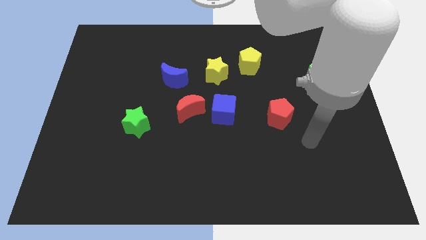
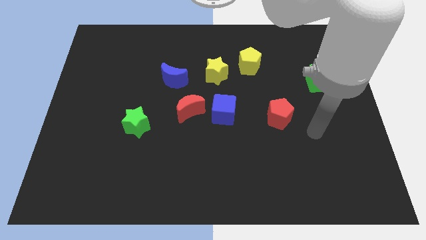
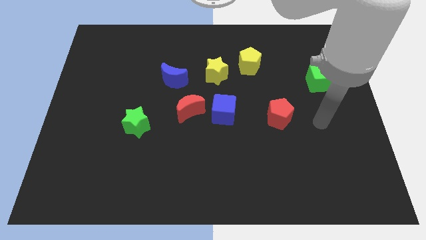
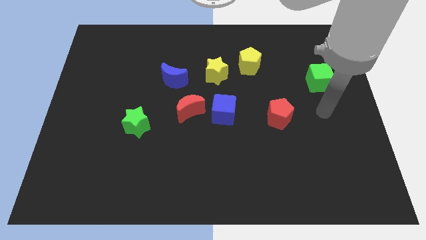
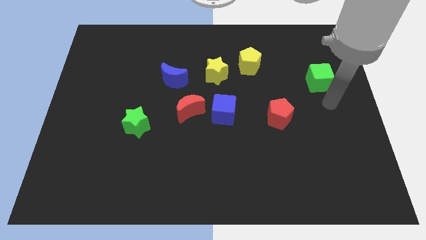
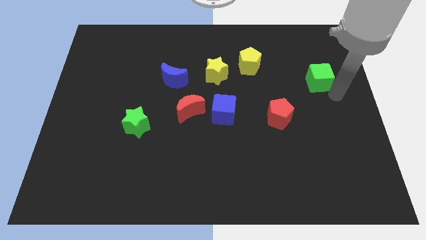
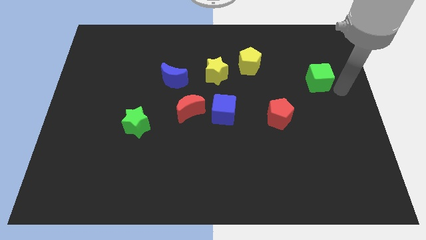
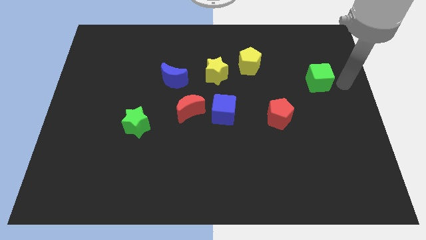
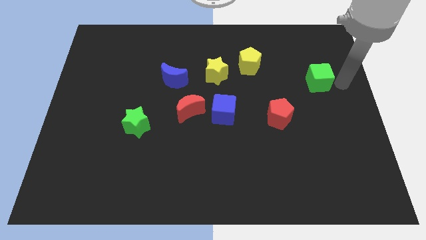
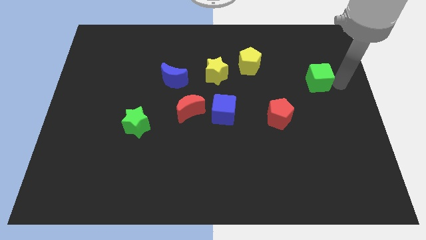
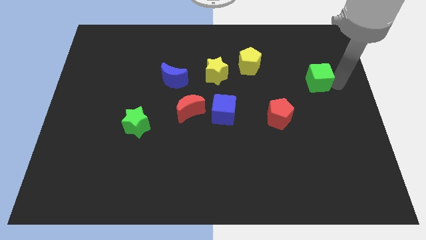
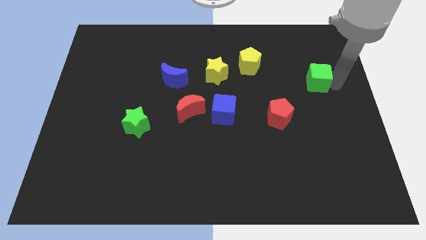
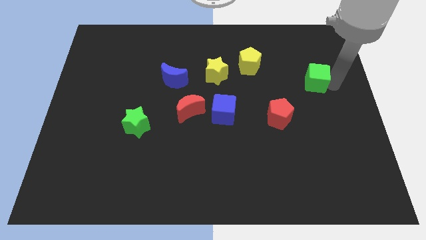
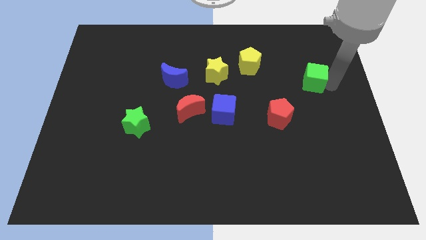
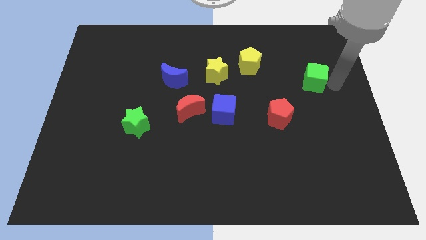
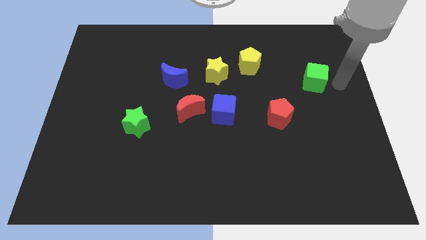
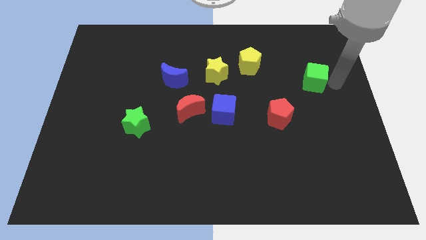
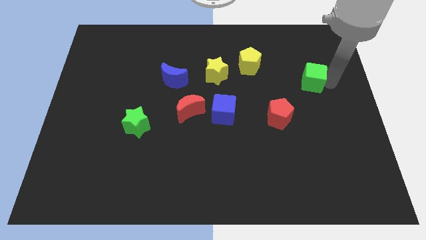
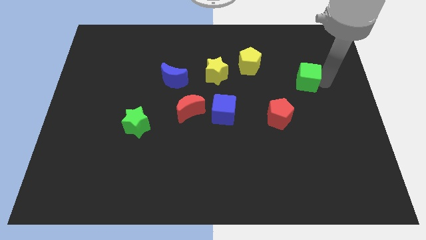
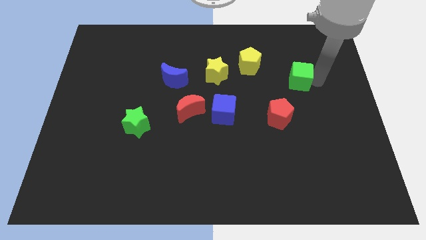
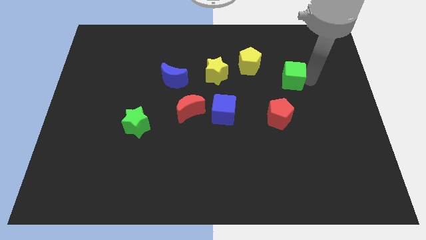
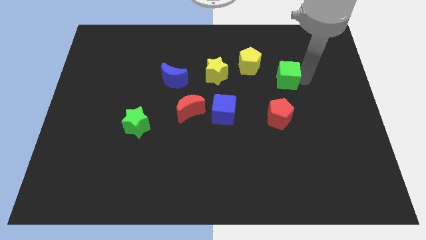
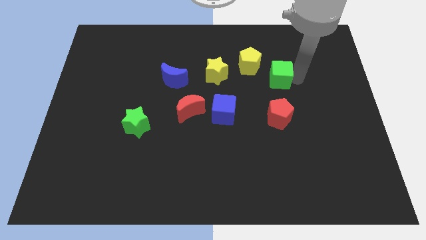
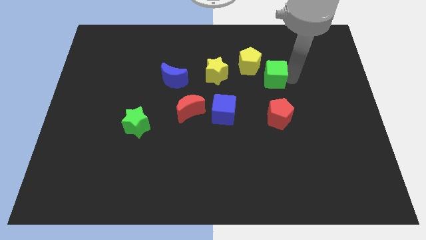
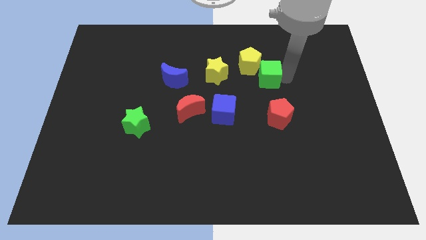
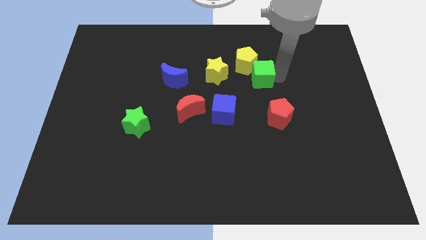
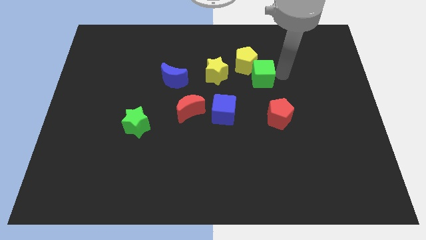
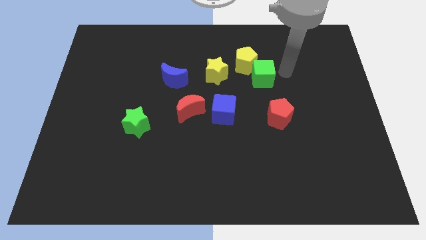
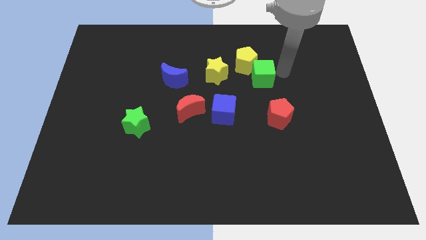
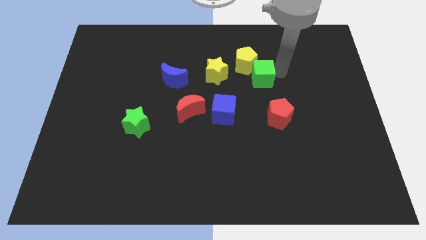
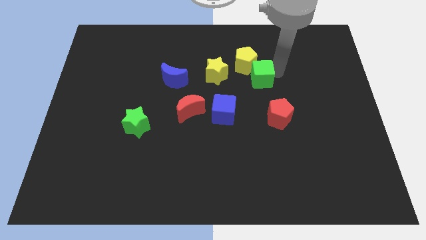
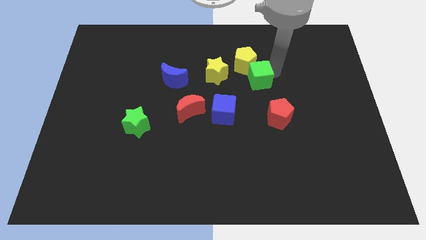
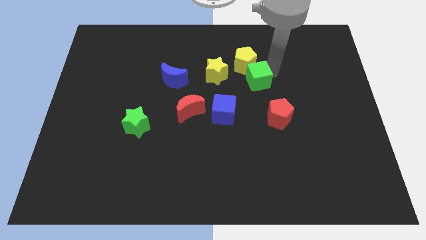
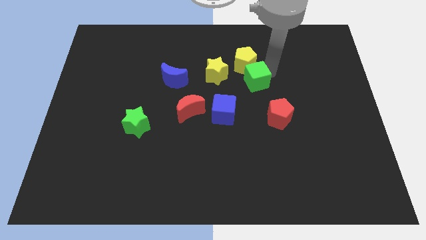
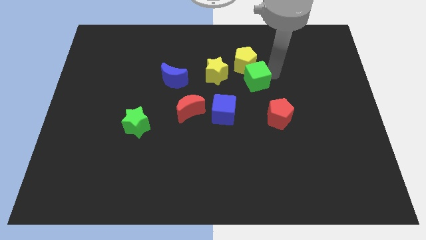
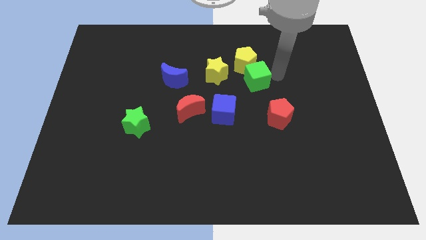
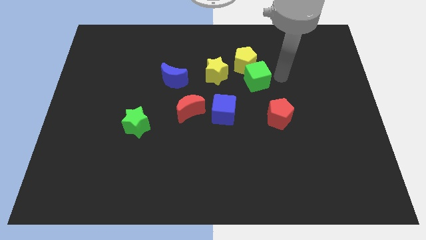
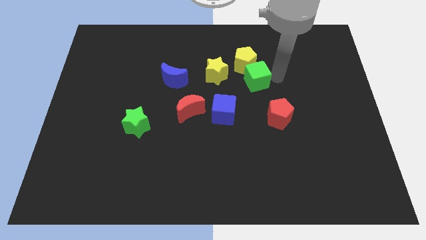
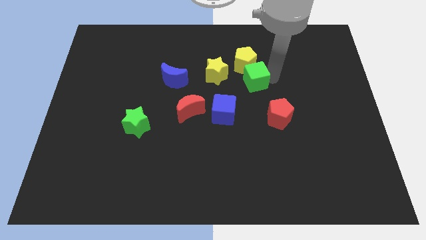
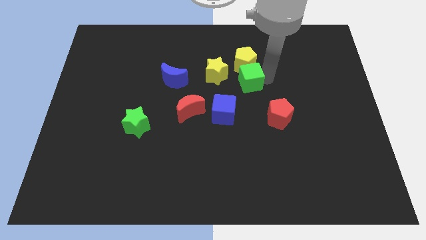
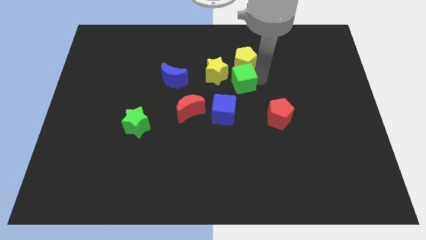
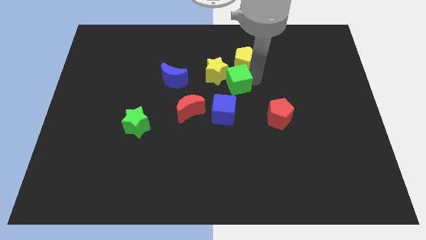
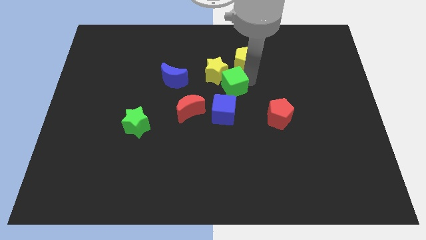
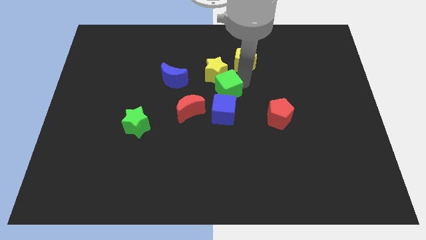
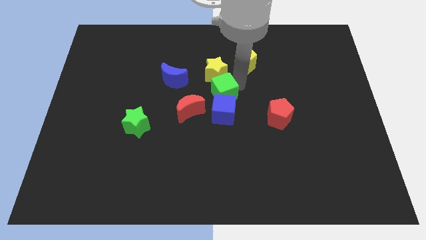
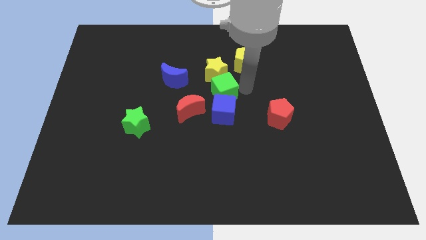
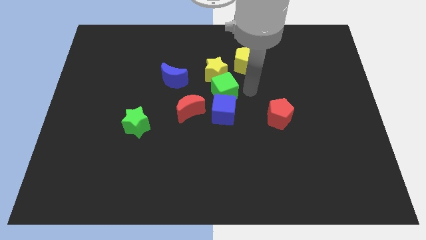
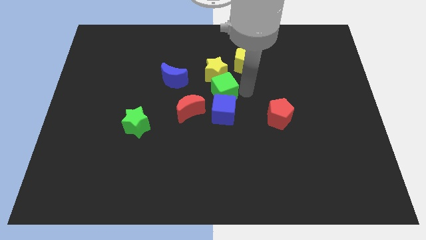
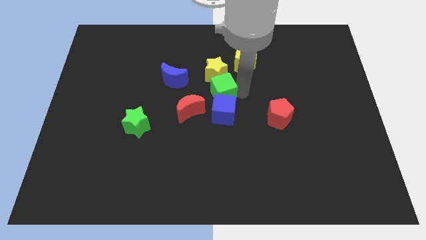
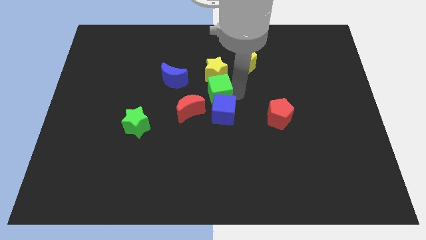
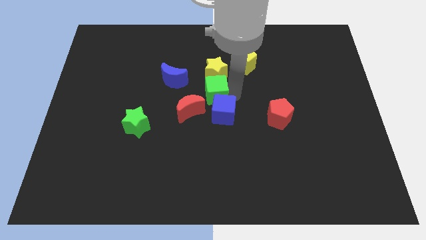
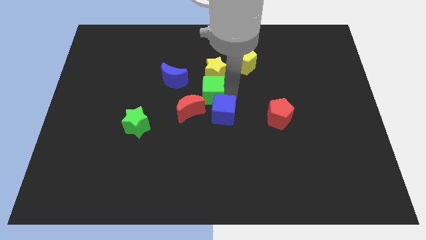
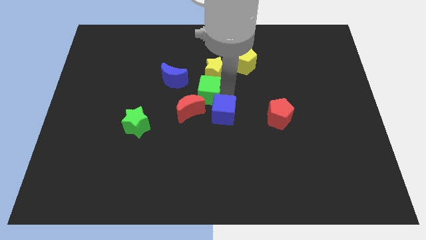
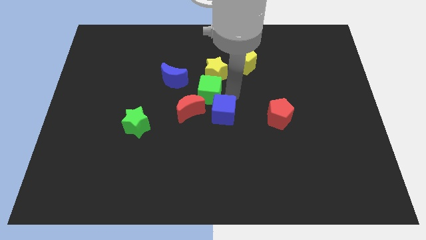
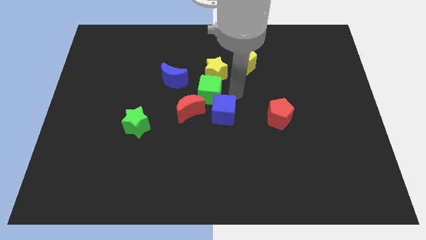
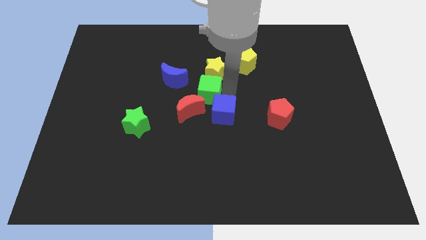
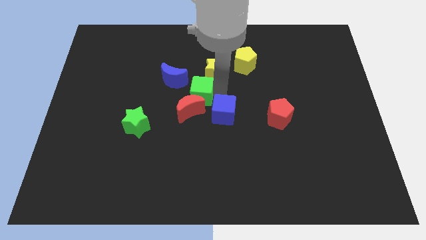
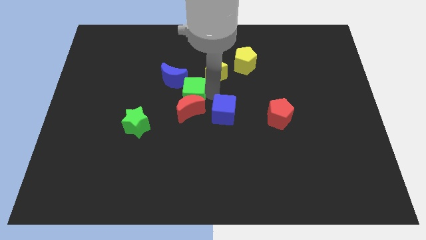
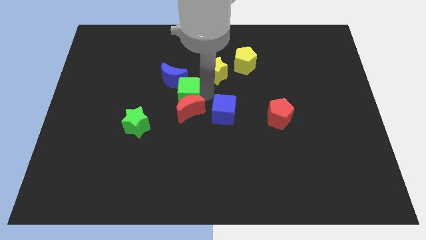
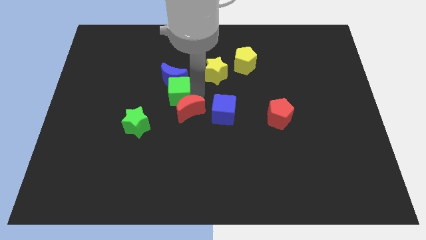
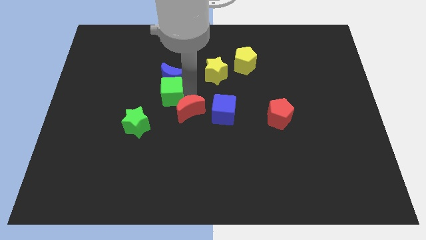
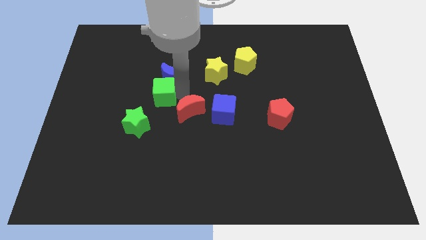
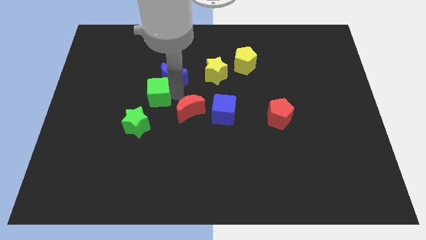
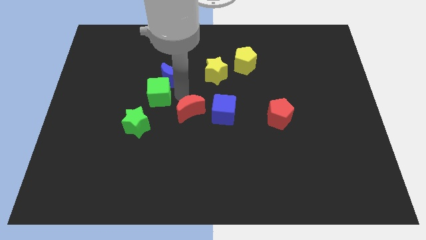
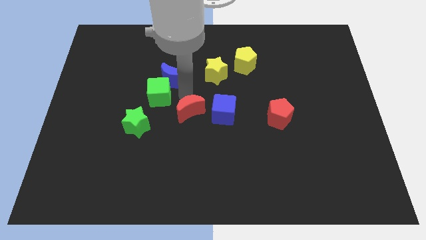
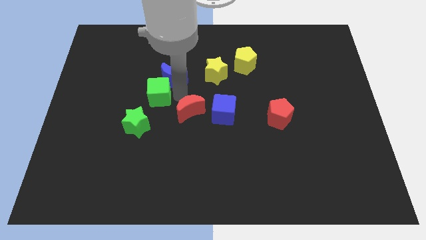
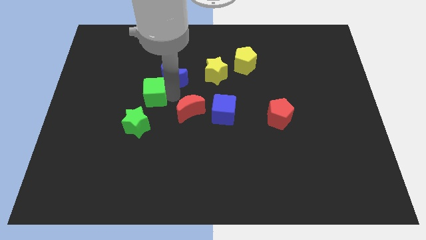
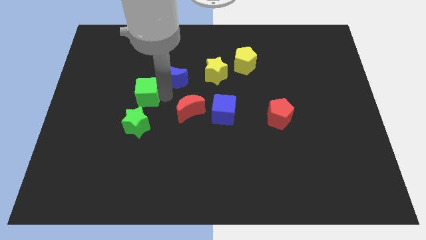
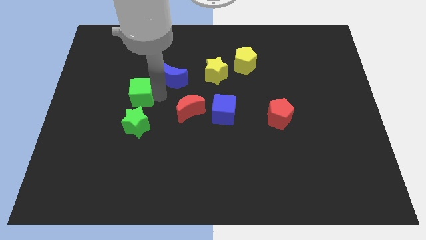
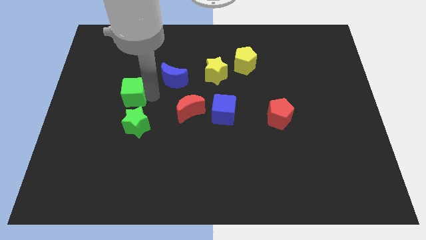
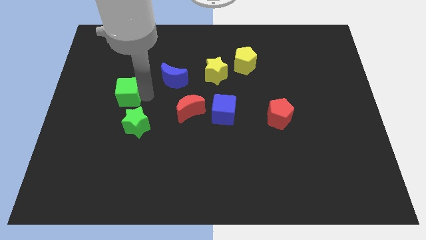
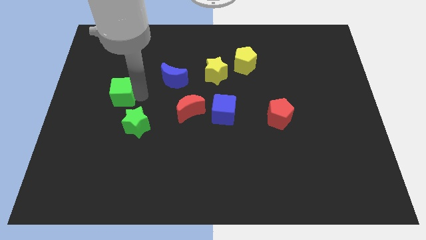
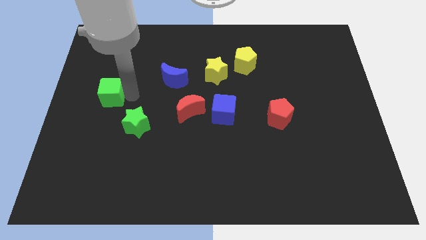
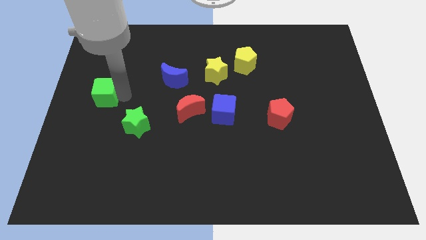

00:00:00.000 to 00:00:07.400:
put the green cube to the center left
